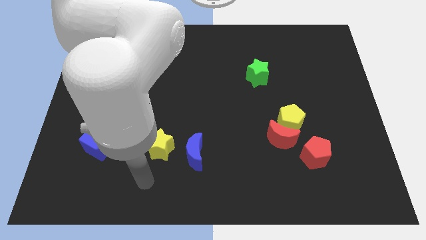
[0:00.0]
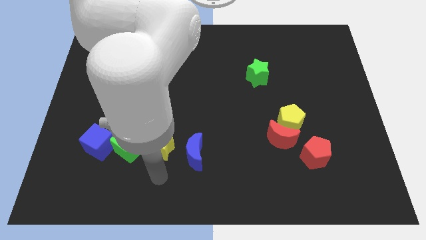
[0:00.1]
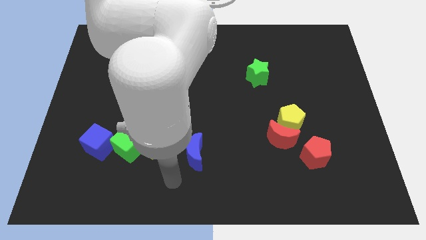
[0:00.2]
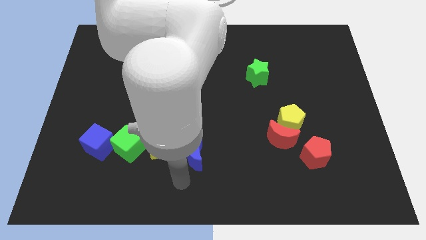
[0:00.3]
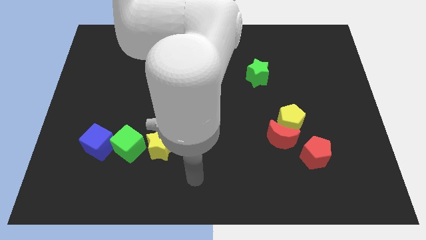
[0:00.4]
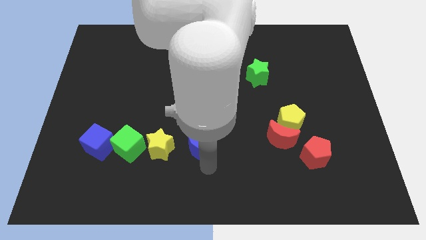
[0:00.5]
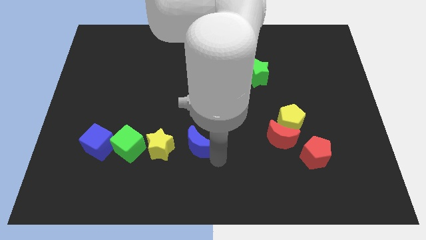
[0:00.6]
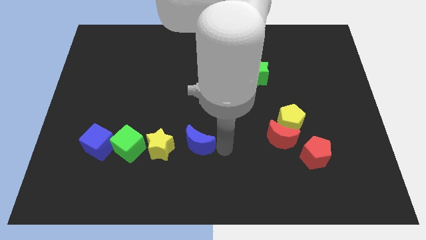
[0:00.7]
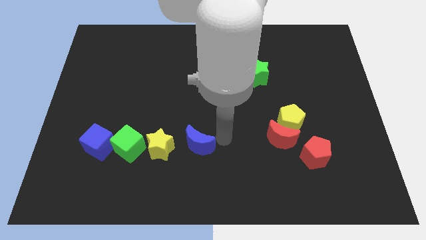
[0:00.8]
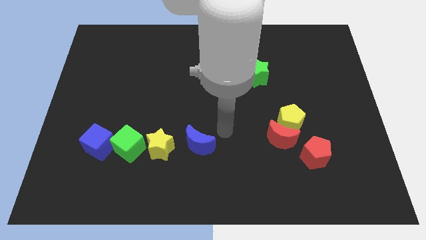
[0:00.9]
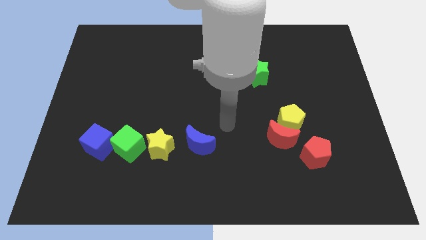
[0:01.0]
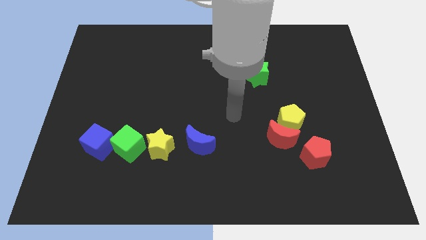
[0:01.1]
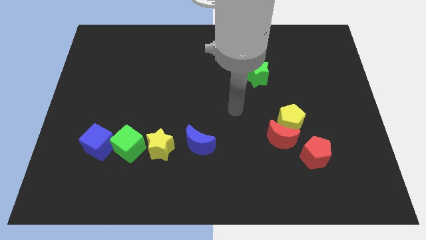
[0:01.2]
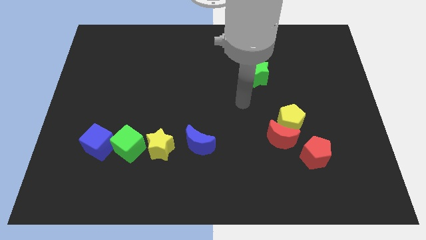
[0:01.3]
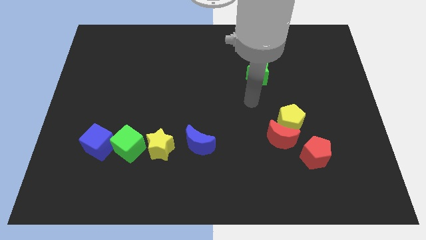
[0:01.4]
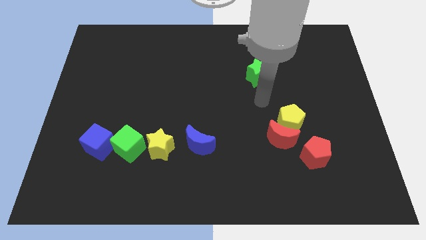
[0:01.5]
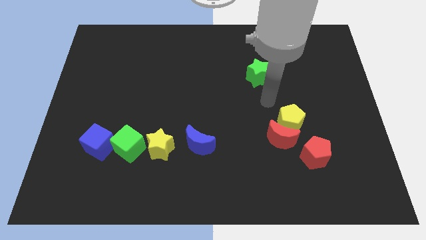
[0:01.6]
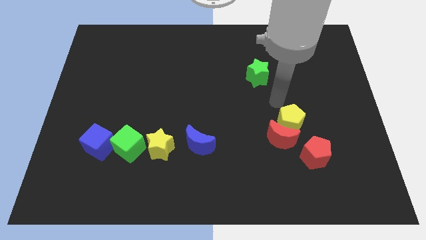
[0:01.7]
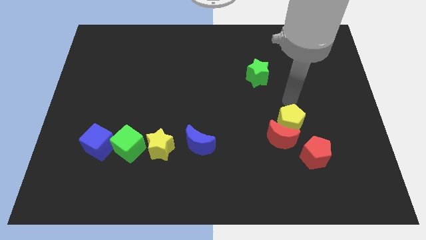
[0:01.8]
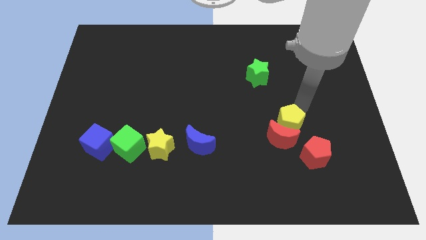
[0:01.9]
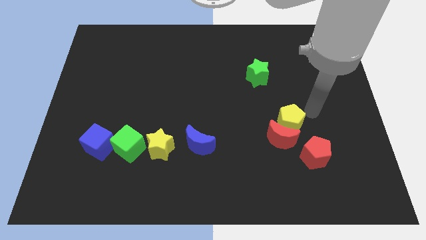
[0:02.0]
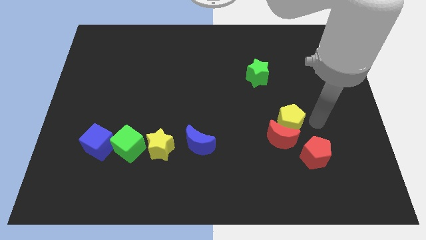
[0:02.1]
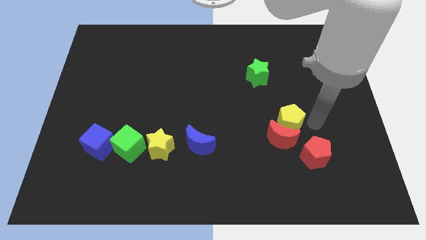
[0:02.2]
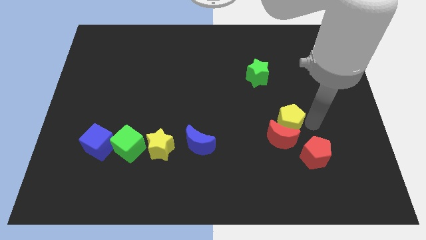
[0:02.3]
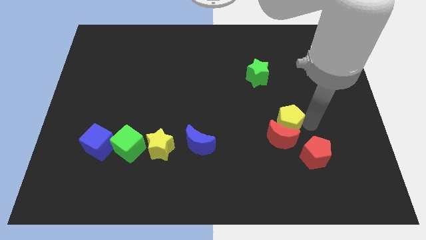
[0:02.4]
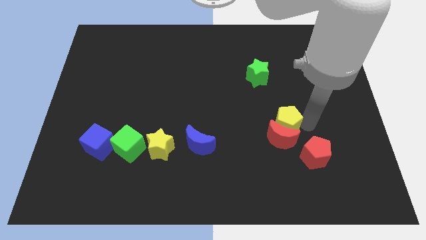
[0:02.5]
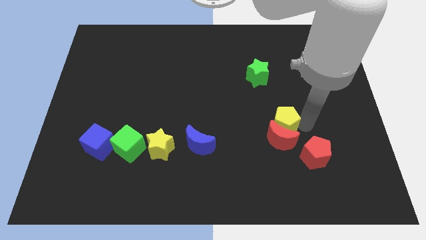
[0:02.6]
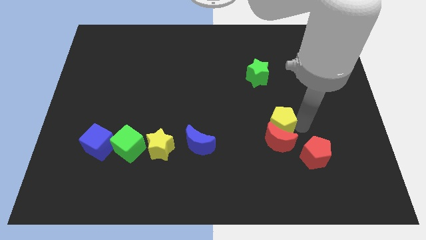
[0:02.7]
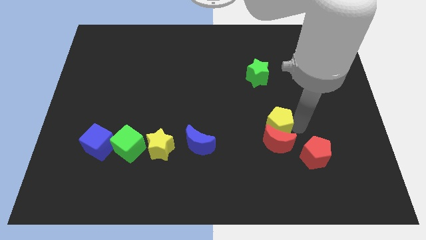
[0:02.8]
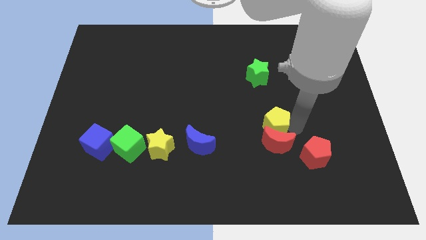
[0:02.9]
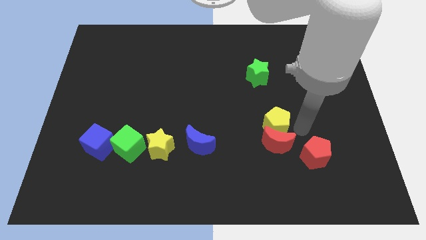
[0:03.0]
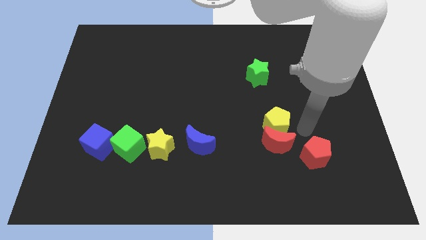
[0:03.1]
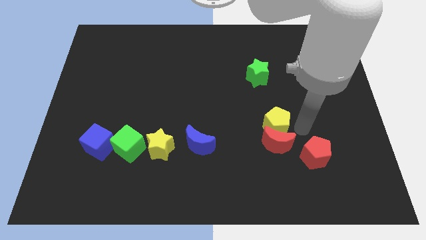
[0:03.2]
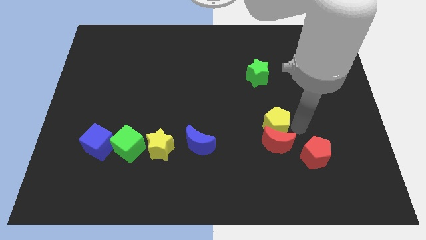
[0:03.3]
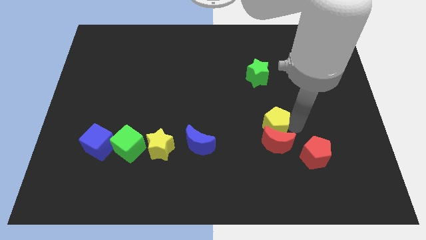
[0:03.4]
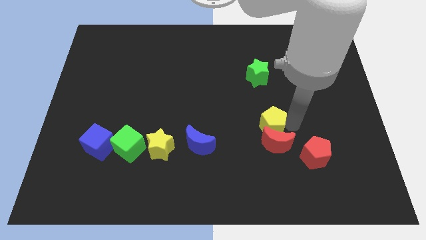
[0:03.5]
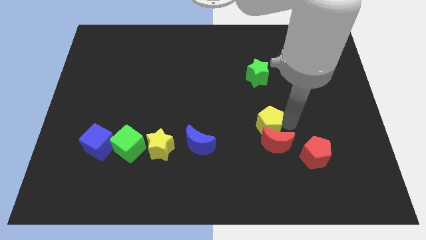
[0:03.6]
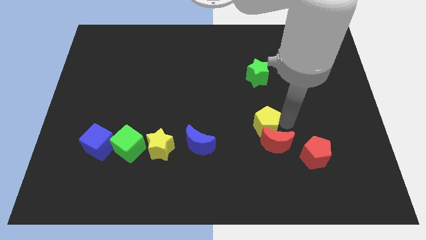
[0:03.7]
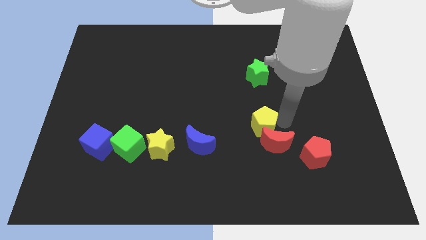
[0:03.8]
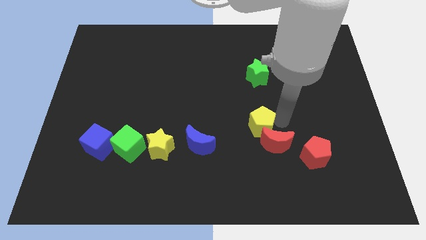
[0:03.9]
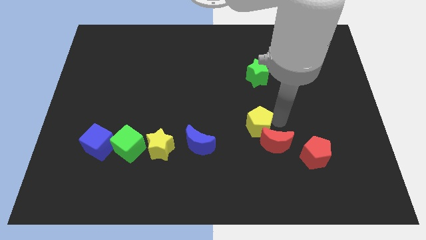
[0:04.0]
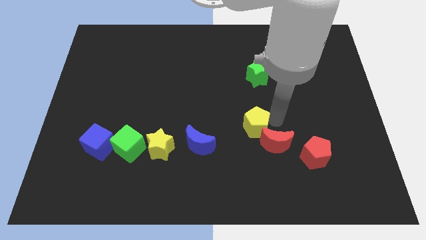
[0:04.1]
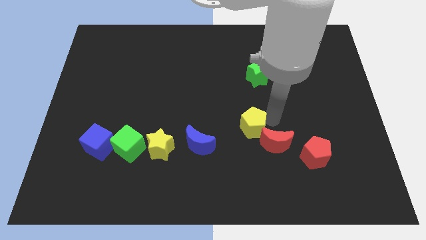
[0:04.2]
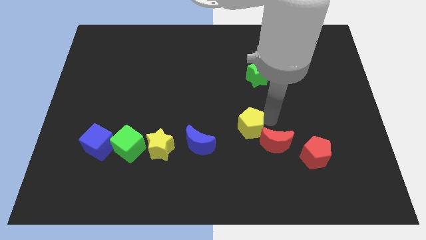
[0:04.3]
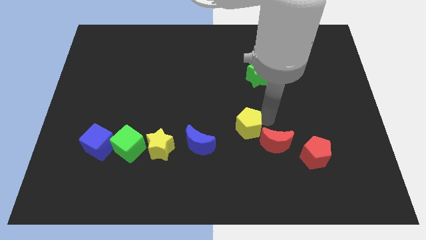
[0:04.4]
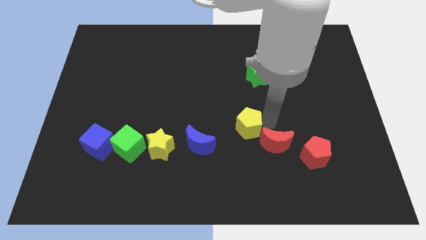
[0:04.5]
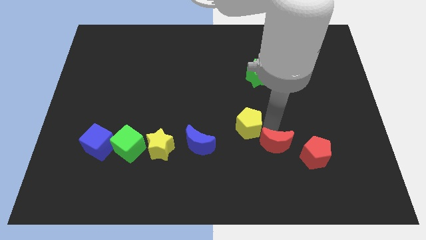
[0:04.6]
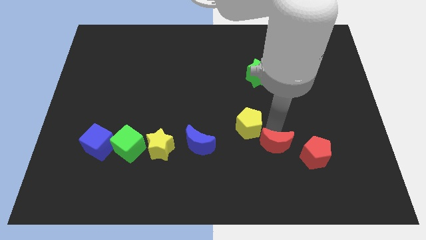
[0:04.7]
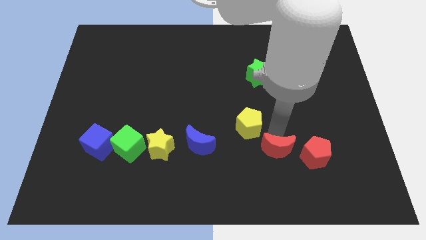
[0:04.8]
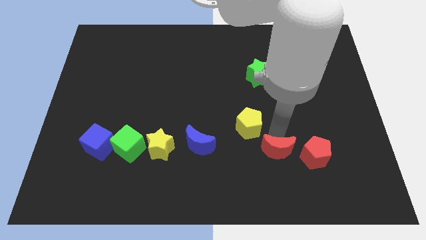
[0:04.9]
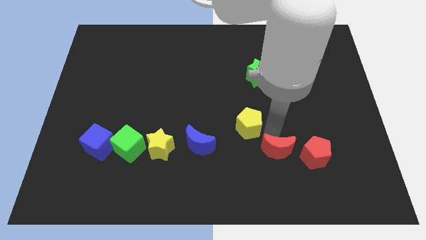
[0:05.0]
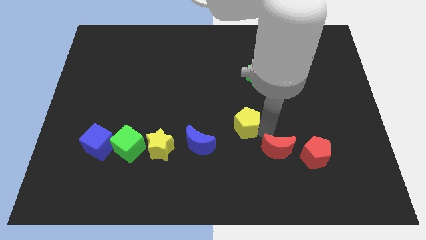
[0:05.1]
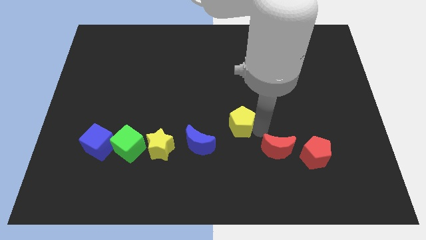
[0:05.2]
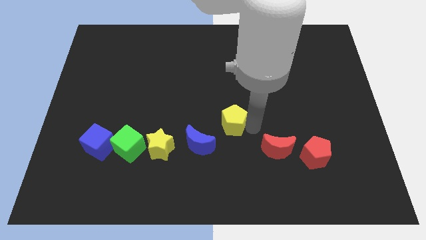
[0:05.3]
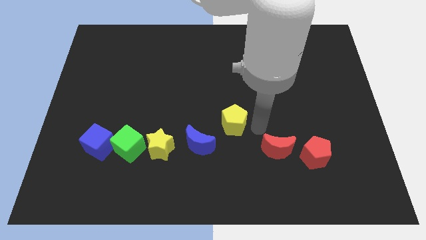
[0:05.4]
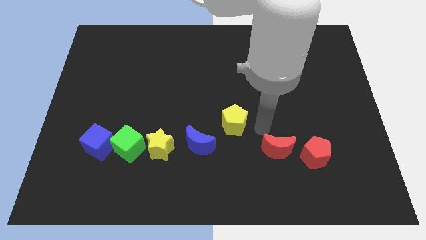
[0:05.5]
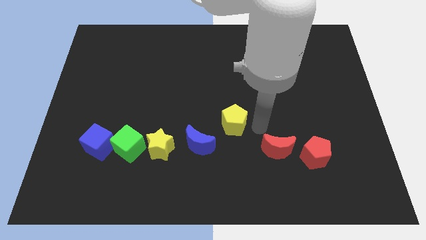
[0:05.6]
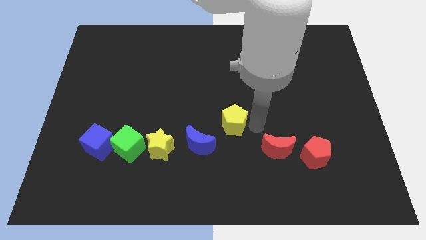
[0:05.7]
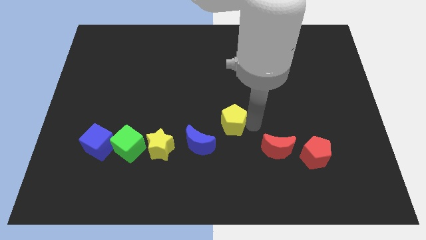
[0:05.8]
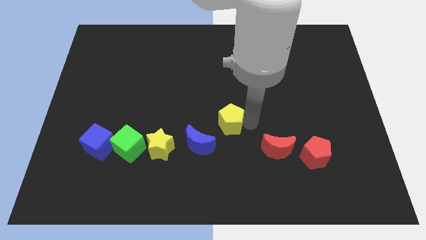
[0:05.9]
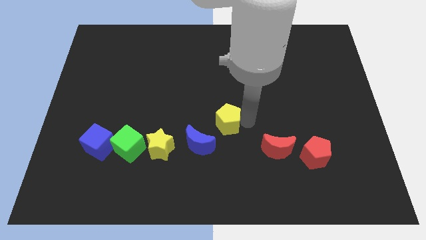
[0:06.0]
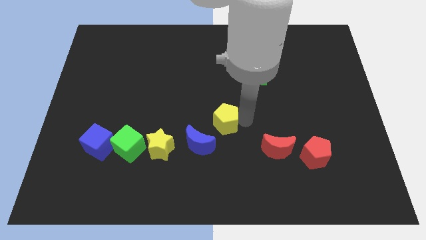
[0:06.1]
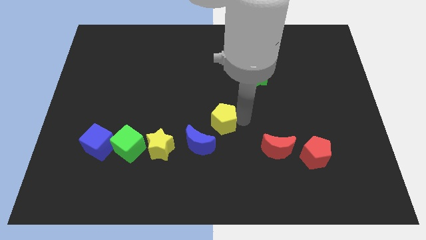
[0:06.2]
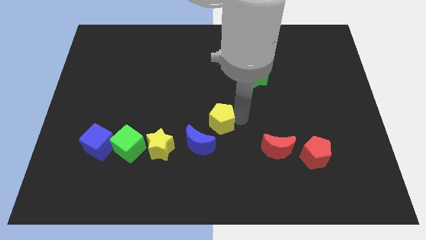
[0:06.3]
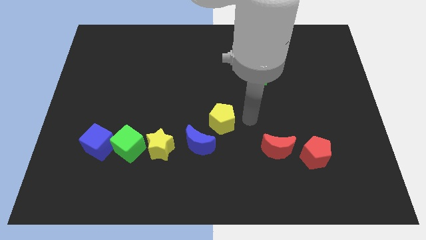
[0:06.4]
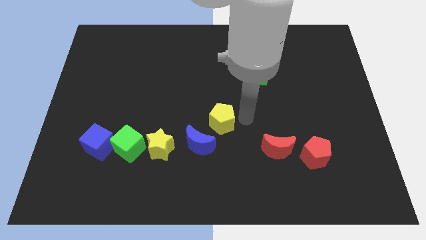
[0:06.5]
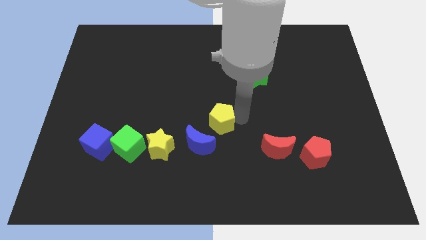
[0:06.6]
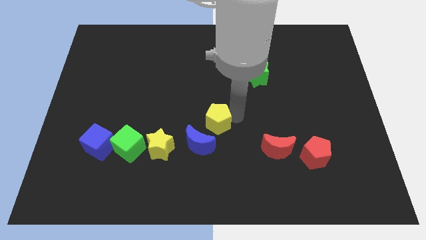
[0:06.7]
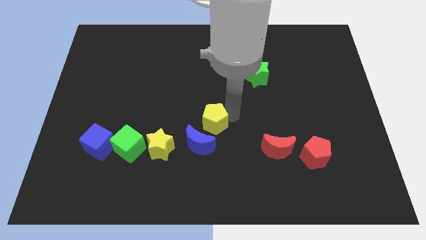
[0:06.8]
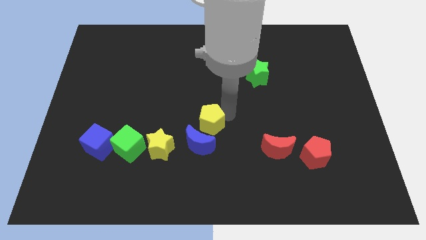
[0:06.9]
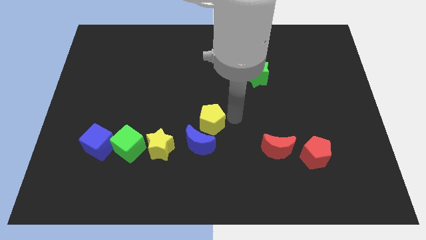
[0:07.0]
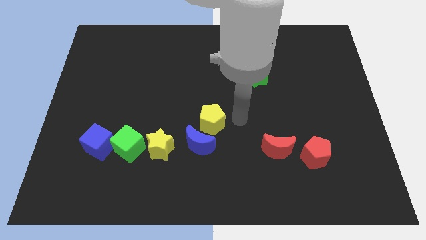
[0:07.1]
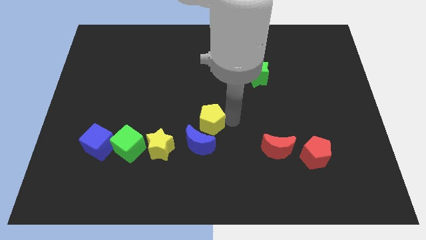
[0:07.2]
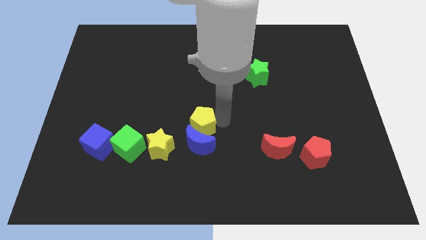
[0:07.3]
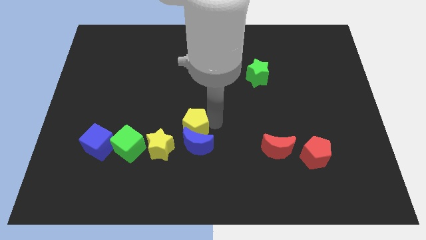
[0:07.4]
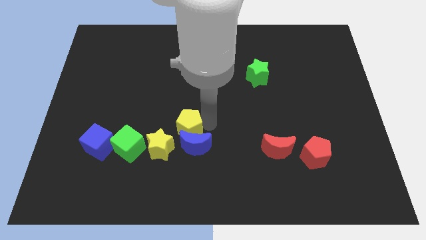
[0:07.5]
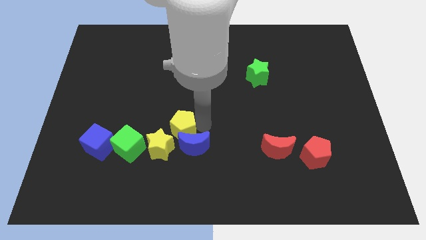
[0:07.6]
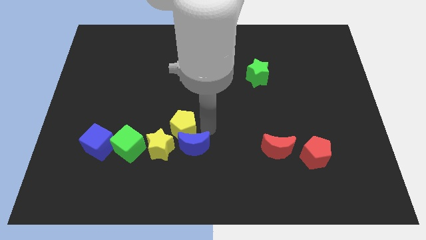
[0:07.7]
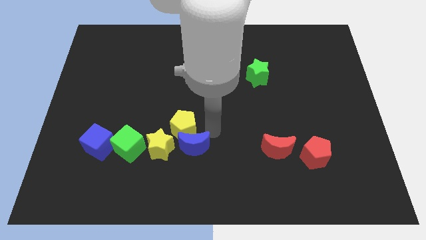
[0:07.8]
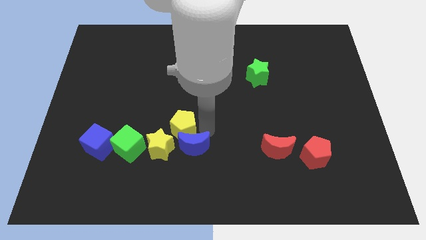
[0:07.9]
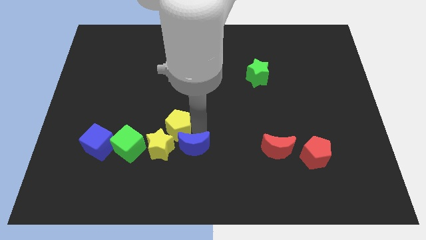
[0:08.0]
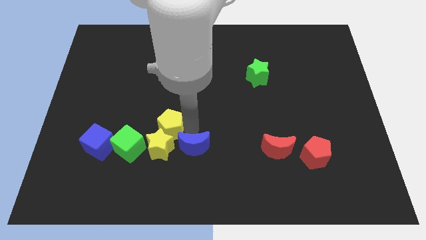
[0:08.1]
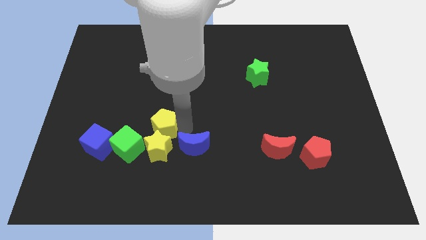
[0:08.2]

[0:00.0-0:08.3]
move the yellow pentagon to the top left of the yellow star
